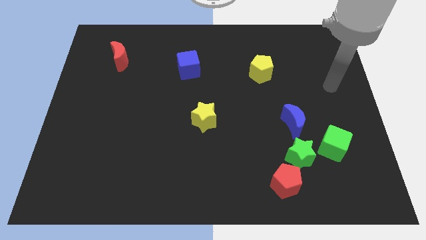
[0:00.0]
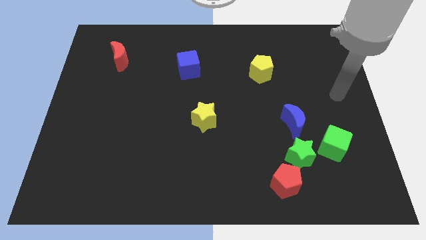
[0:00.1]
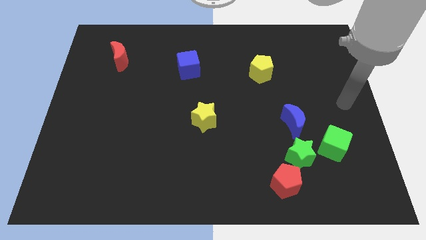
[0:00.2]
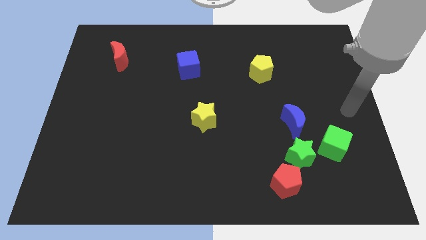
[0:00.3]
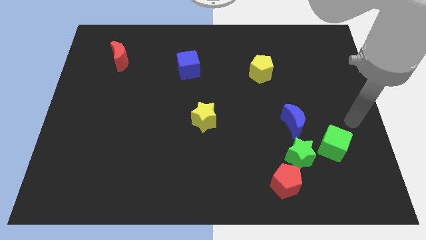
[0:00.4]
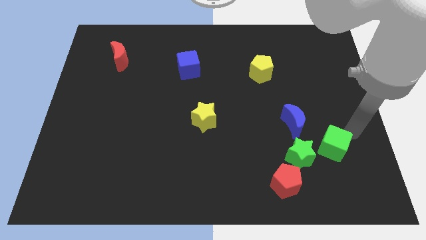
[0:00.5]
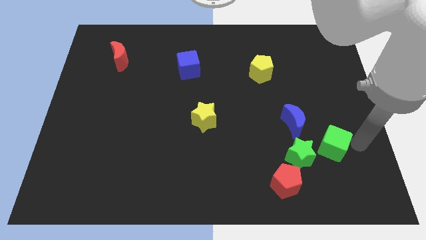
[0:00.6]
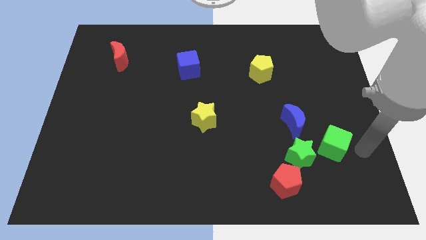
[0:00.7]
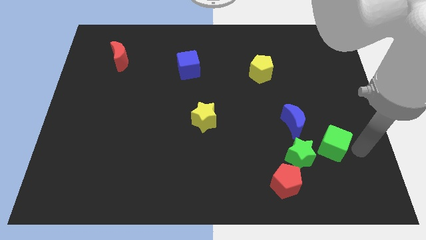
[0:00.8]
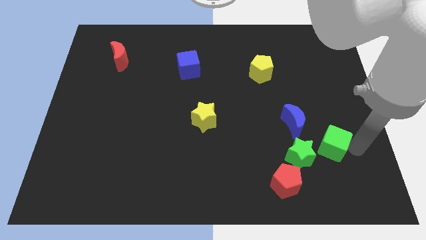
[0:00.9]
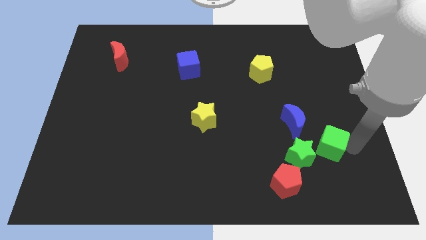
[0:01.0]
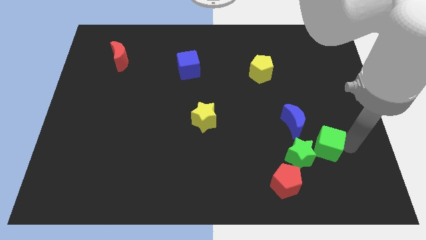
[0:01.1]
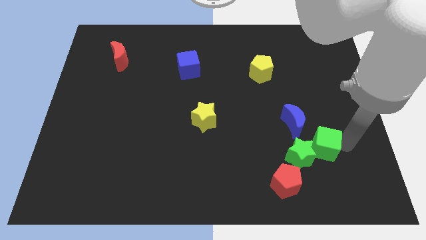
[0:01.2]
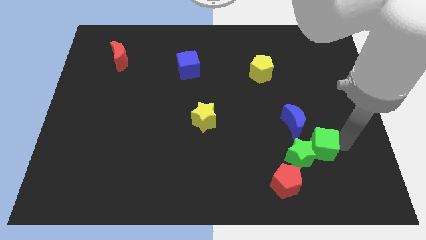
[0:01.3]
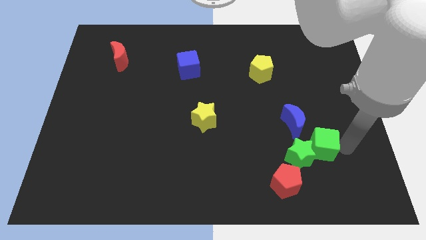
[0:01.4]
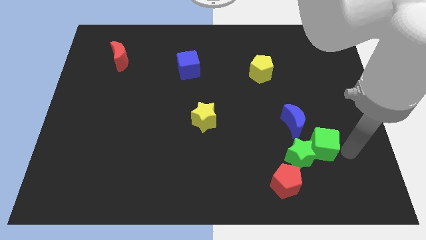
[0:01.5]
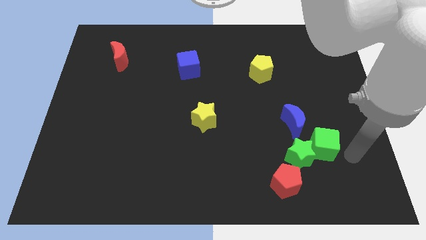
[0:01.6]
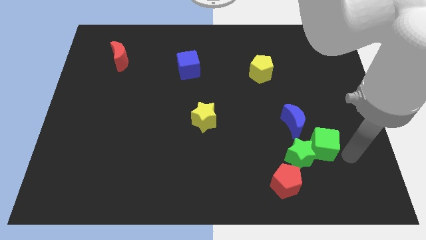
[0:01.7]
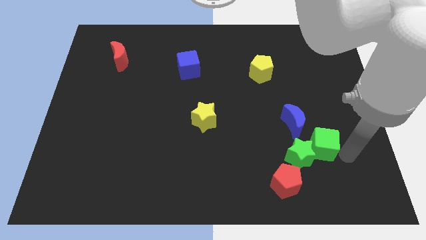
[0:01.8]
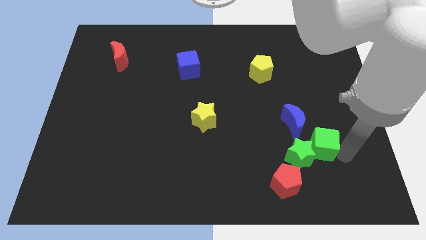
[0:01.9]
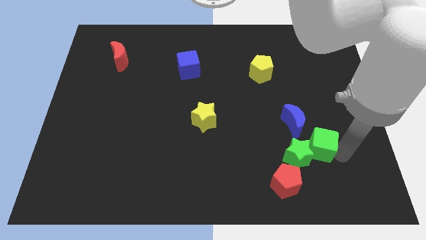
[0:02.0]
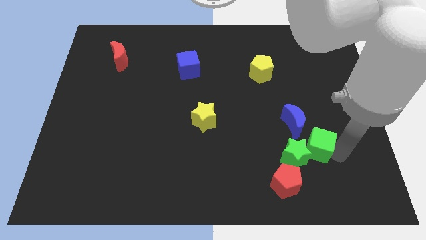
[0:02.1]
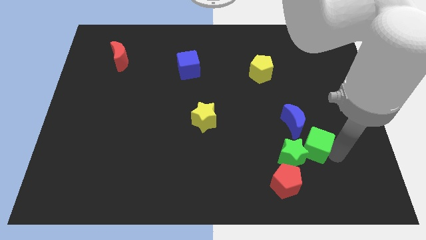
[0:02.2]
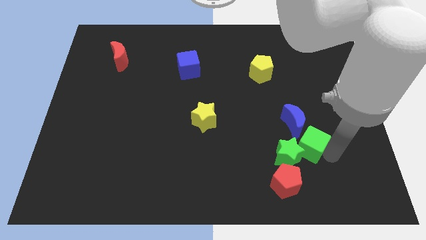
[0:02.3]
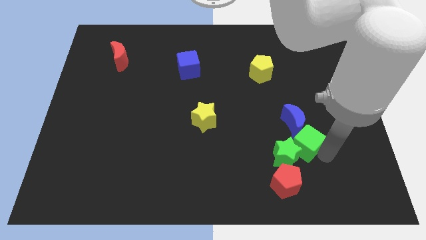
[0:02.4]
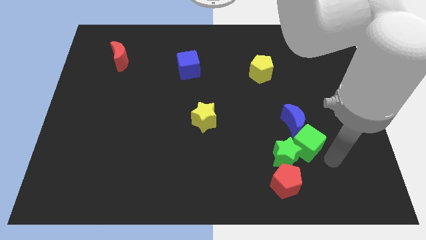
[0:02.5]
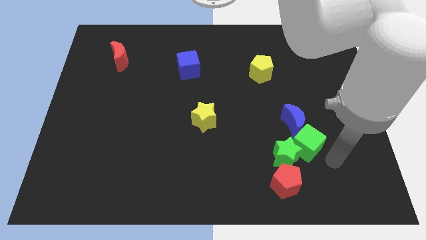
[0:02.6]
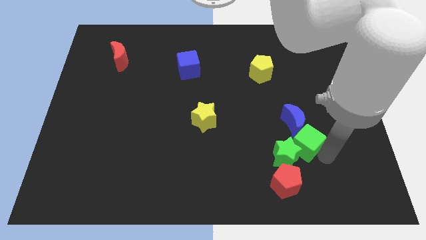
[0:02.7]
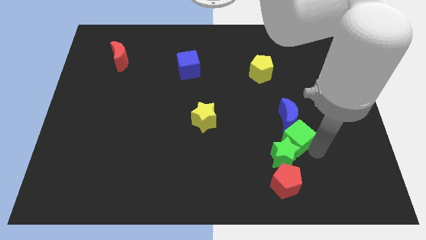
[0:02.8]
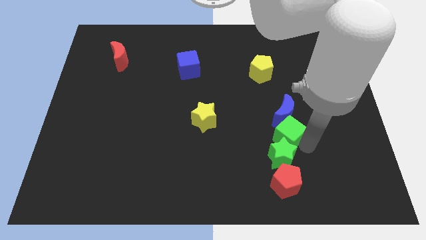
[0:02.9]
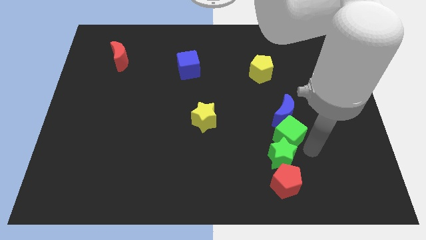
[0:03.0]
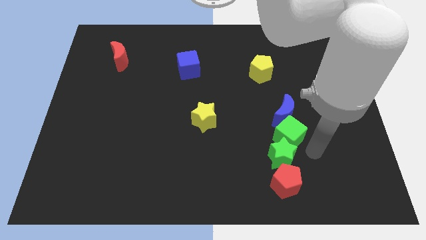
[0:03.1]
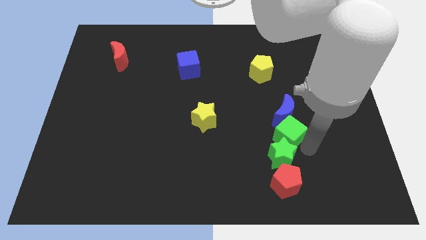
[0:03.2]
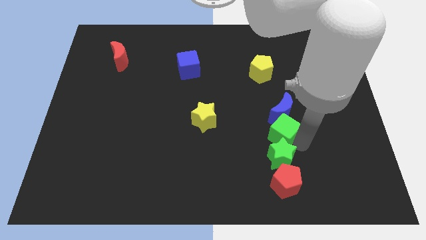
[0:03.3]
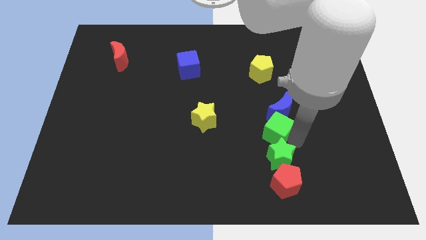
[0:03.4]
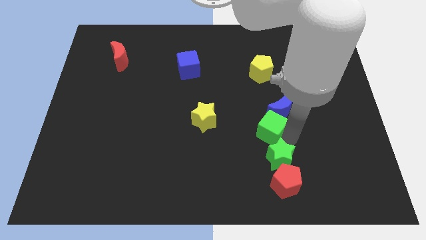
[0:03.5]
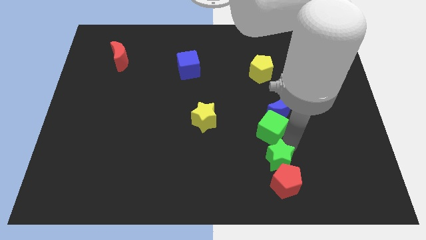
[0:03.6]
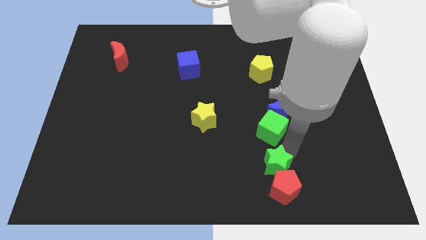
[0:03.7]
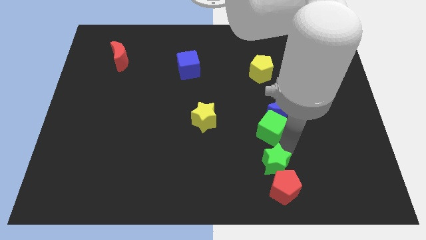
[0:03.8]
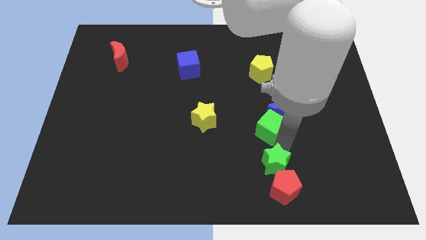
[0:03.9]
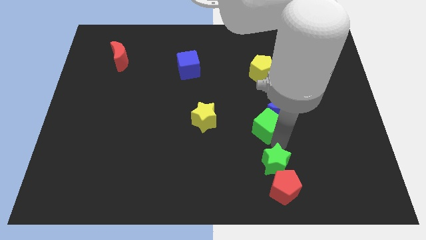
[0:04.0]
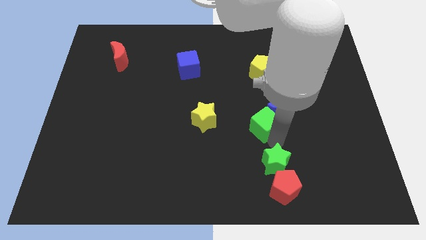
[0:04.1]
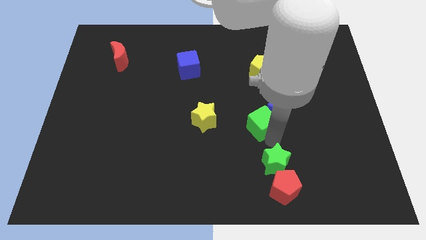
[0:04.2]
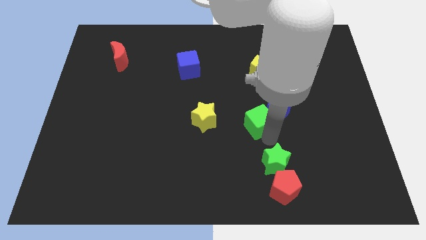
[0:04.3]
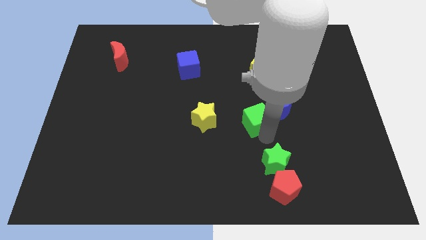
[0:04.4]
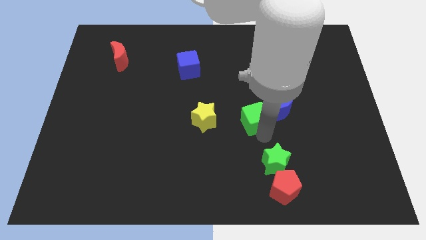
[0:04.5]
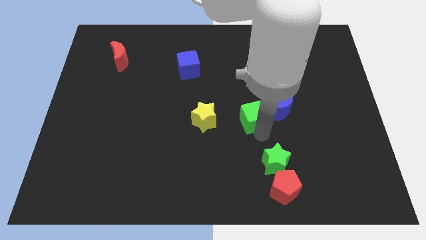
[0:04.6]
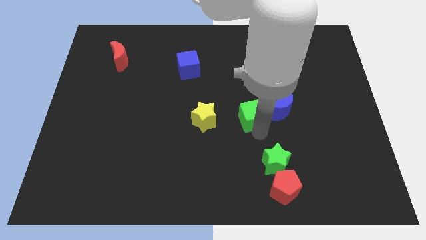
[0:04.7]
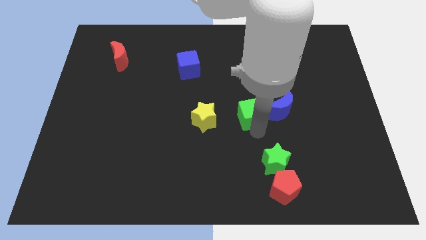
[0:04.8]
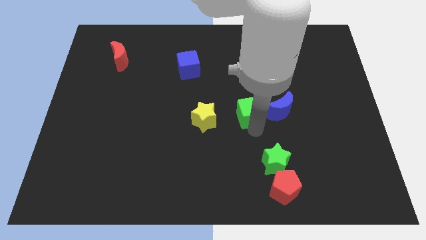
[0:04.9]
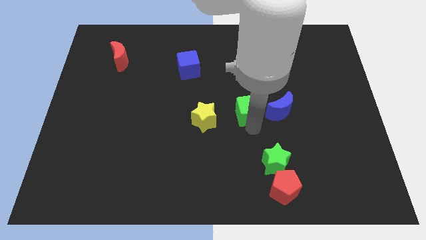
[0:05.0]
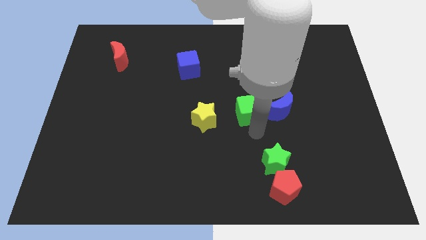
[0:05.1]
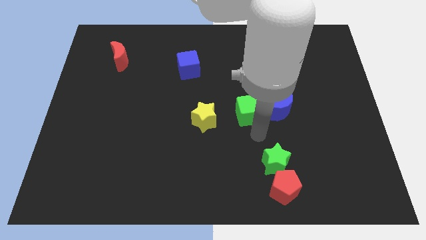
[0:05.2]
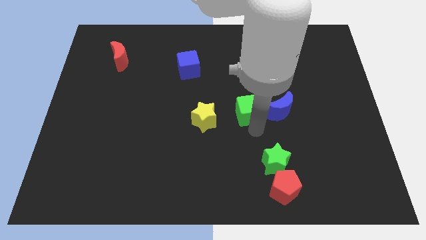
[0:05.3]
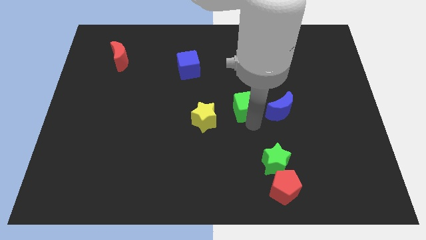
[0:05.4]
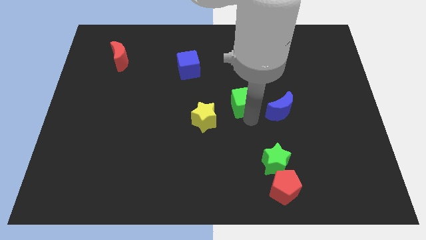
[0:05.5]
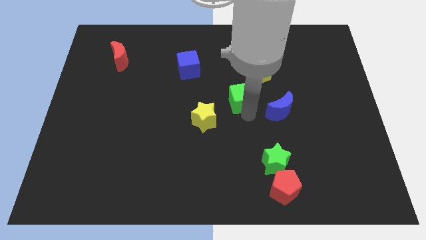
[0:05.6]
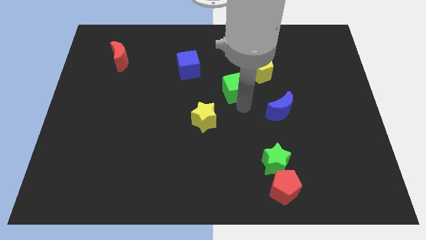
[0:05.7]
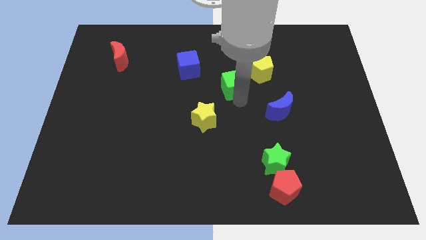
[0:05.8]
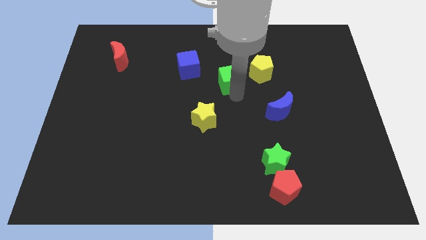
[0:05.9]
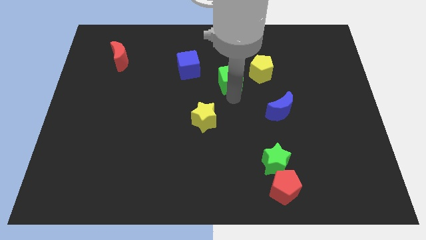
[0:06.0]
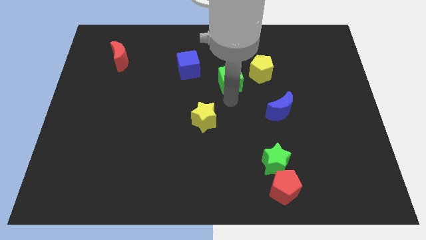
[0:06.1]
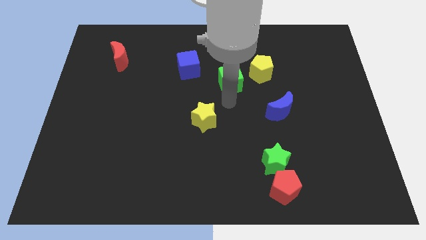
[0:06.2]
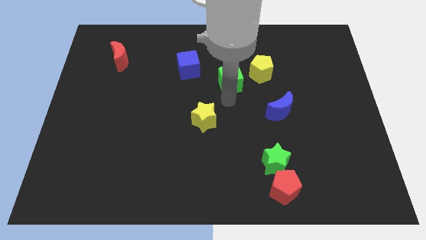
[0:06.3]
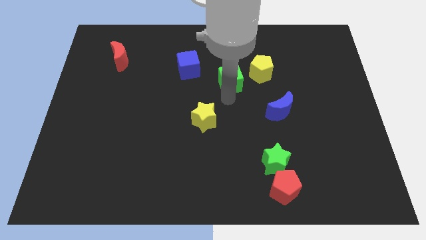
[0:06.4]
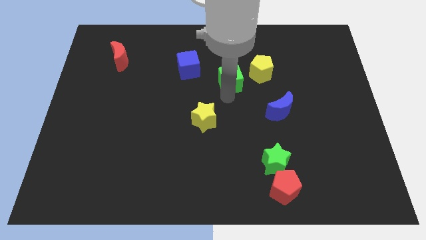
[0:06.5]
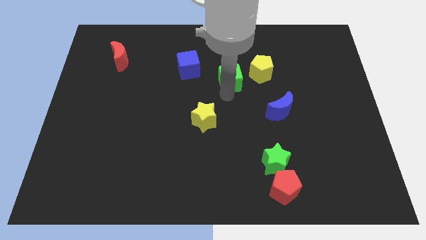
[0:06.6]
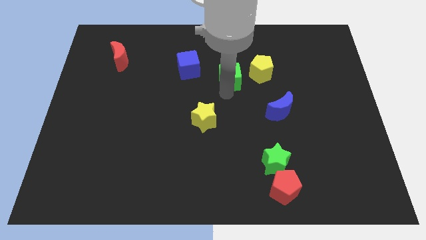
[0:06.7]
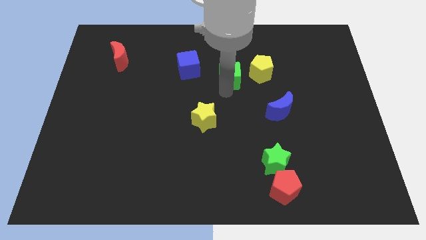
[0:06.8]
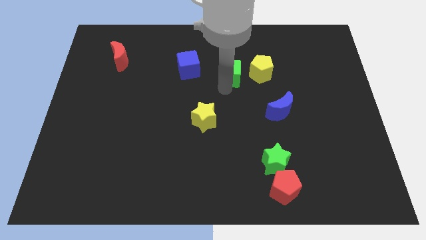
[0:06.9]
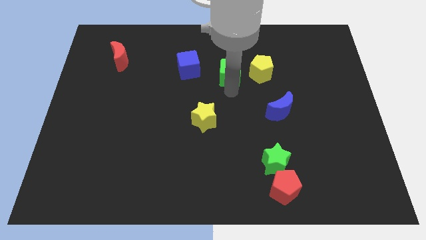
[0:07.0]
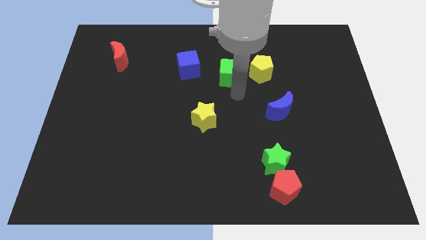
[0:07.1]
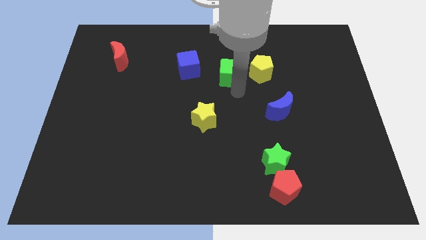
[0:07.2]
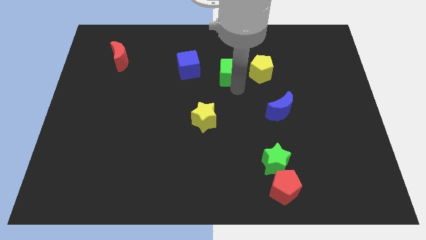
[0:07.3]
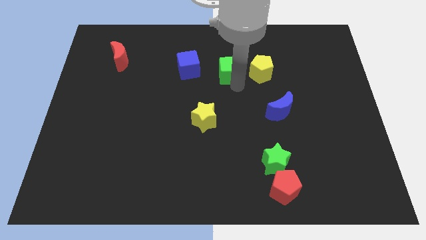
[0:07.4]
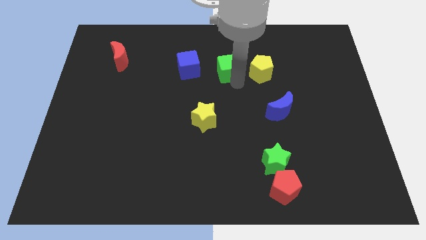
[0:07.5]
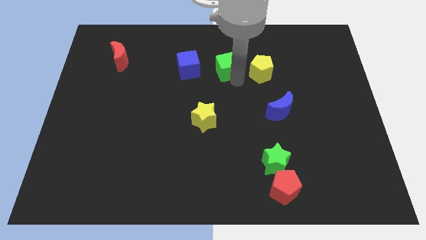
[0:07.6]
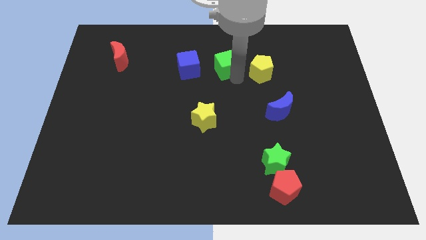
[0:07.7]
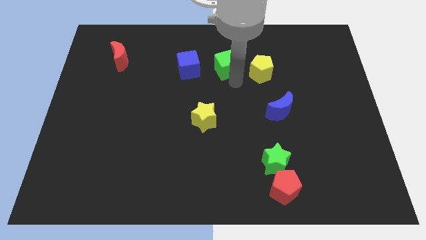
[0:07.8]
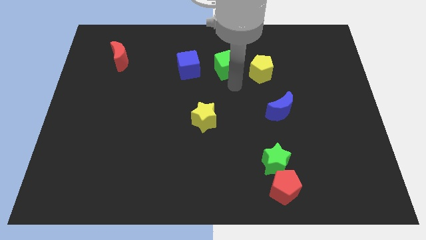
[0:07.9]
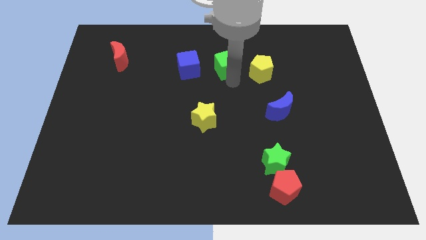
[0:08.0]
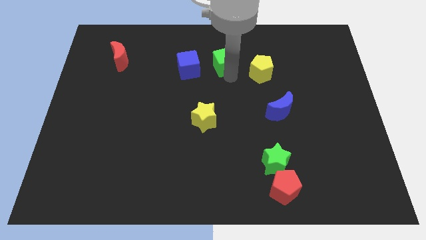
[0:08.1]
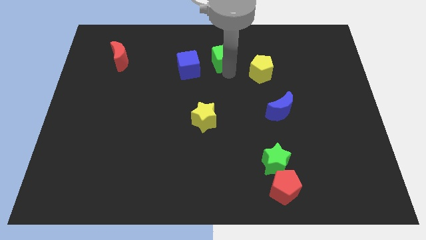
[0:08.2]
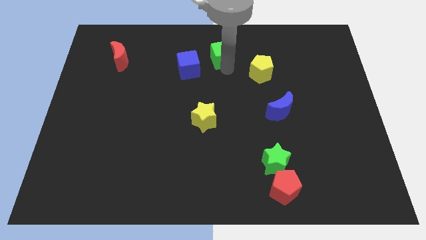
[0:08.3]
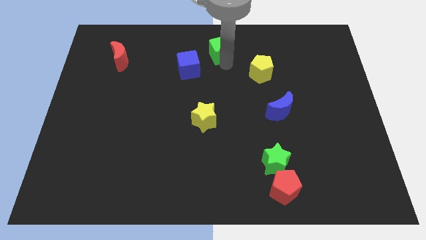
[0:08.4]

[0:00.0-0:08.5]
move the green cube to the top side
